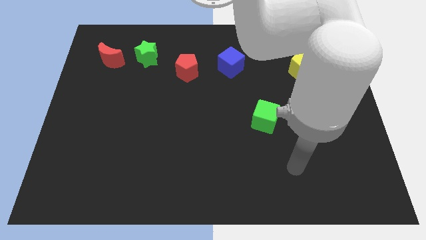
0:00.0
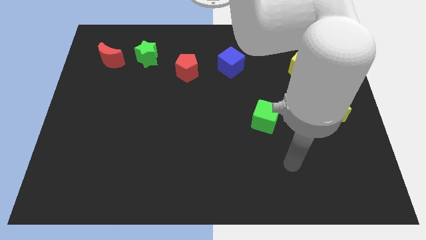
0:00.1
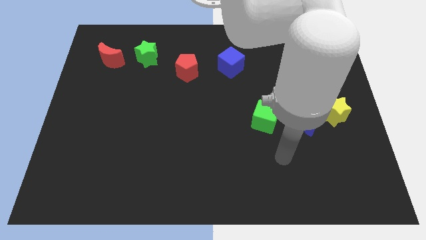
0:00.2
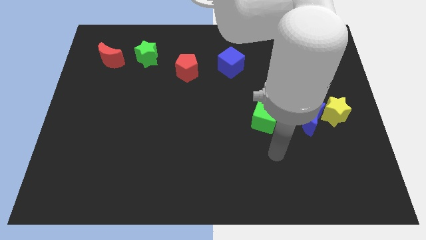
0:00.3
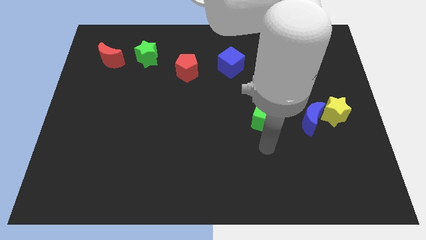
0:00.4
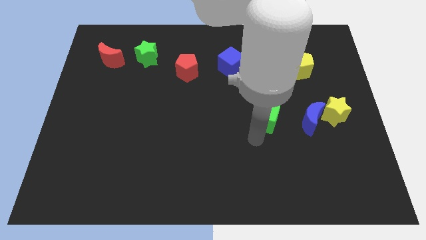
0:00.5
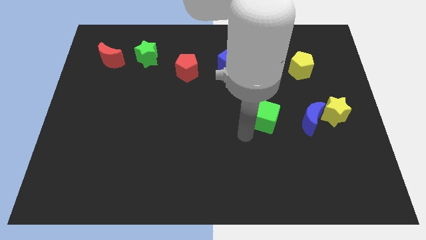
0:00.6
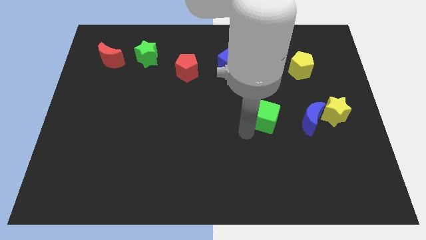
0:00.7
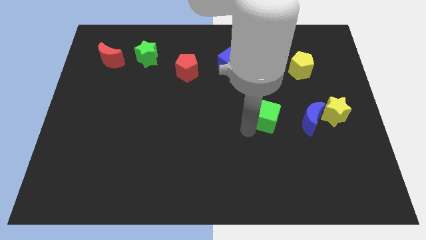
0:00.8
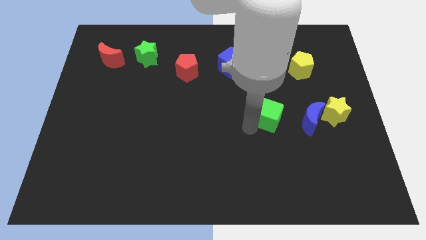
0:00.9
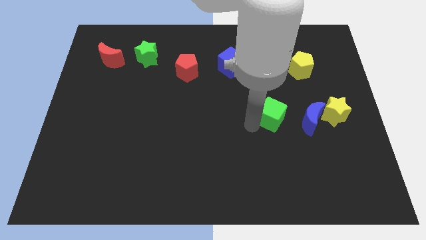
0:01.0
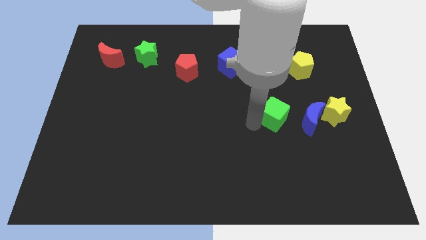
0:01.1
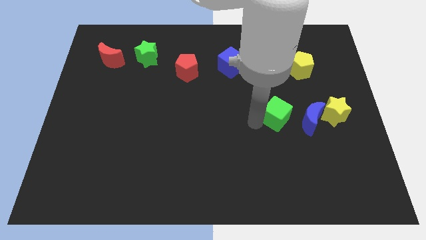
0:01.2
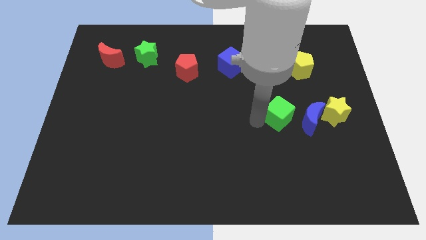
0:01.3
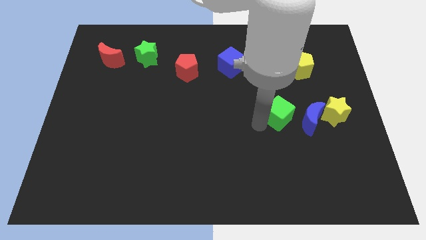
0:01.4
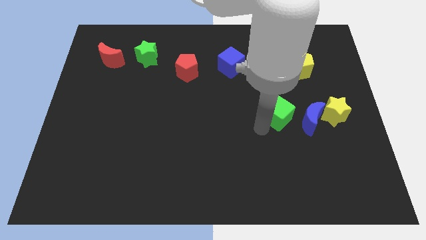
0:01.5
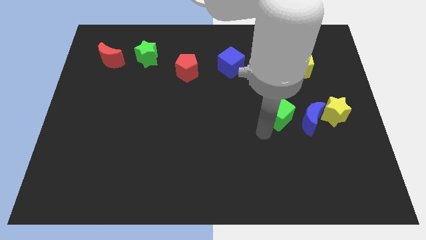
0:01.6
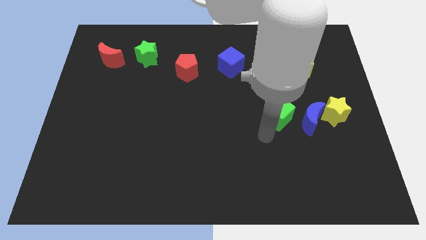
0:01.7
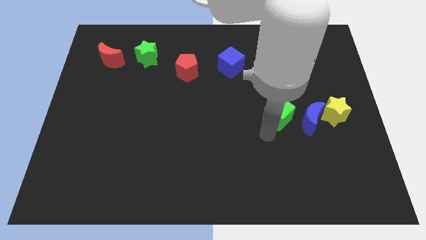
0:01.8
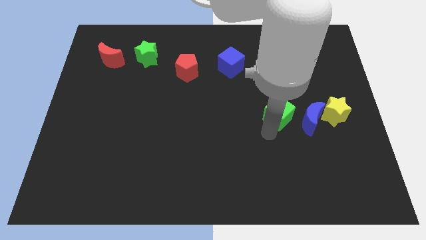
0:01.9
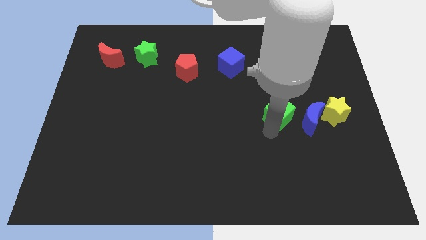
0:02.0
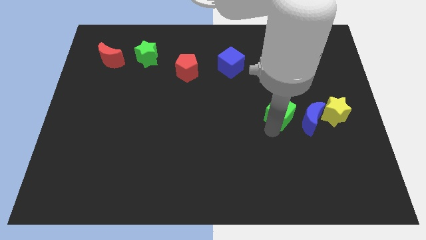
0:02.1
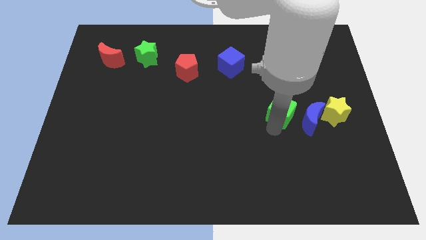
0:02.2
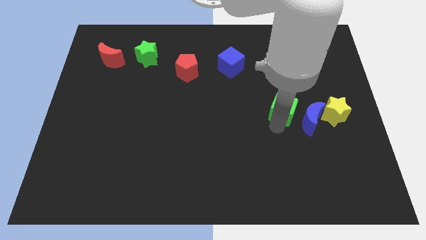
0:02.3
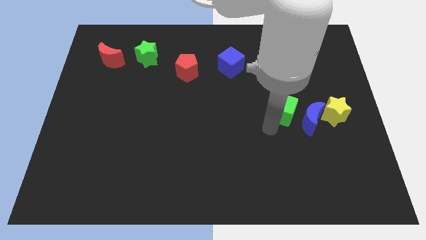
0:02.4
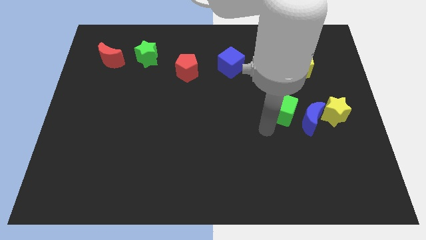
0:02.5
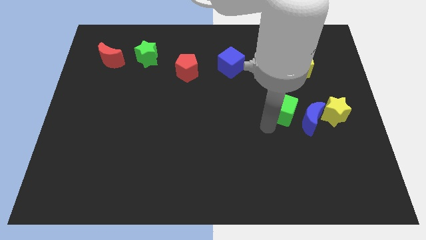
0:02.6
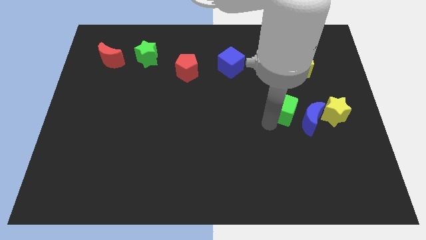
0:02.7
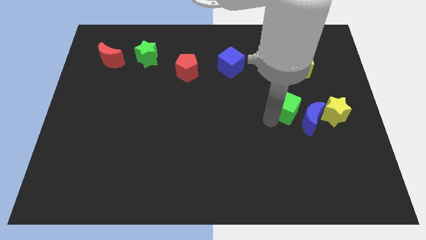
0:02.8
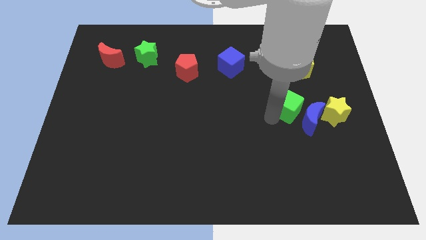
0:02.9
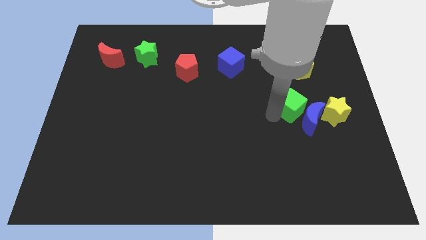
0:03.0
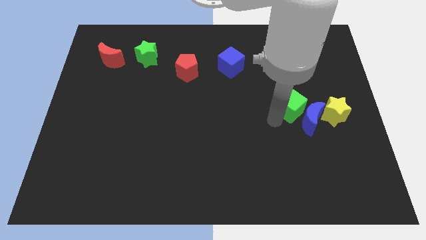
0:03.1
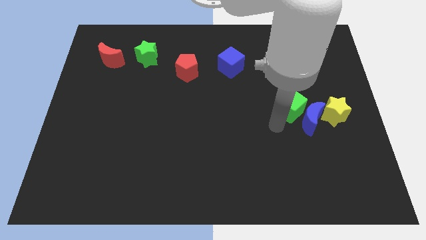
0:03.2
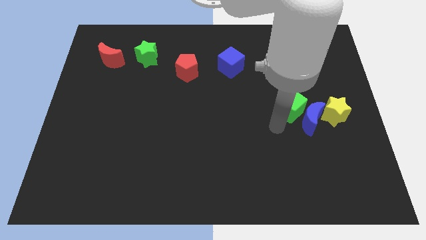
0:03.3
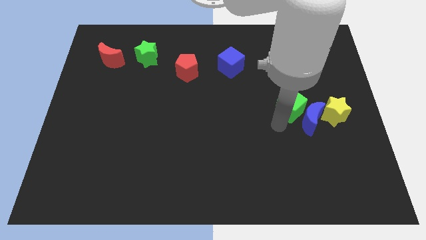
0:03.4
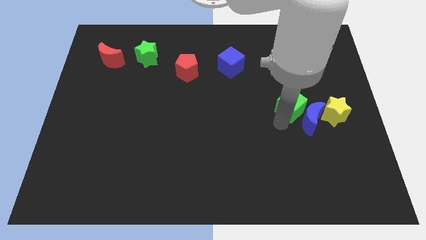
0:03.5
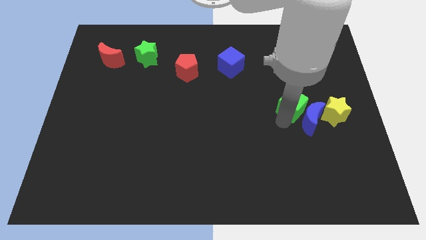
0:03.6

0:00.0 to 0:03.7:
slide the green cube diagonally upwards and to the right a bit

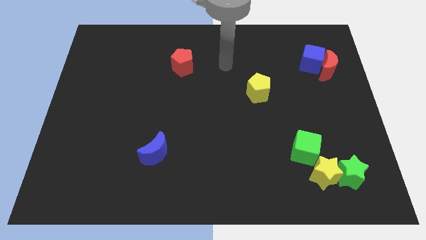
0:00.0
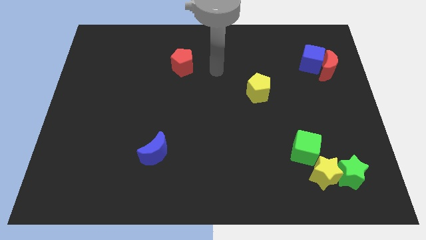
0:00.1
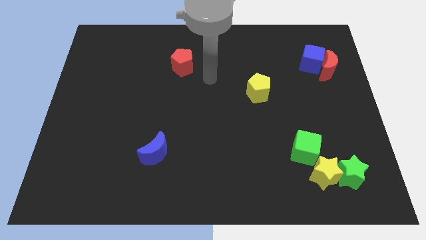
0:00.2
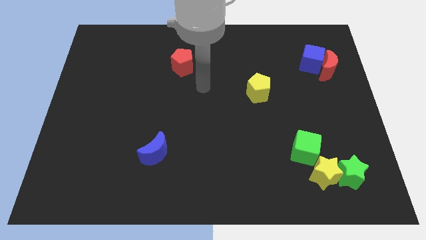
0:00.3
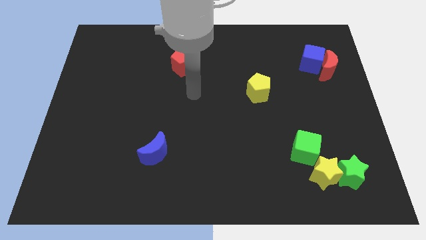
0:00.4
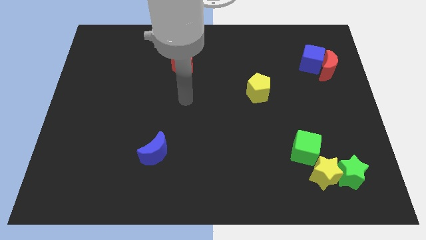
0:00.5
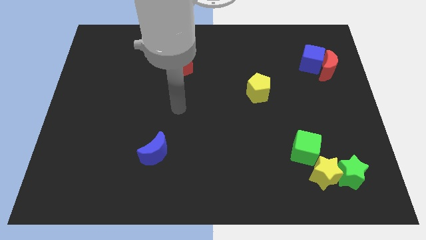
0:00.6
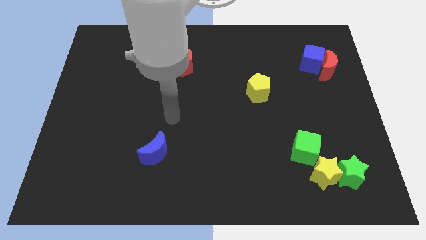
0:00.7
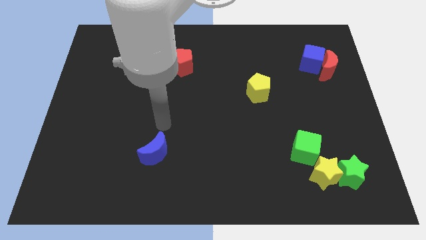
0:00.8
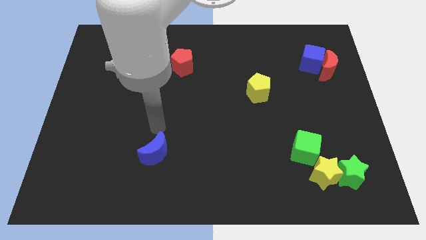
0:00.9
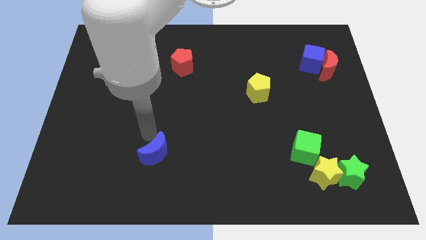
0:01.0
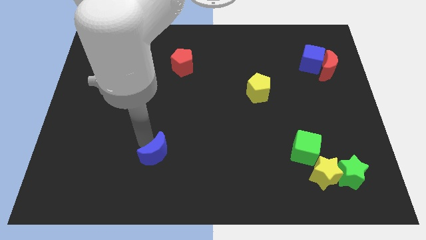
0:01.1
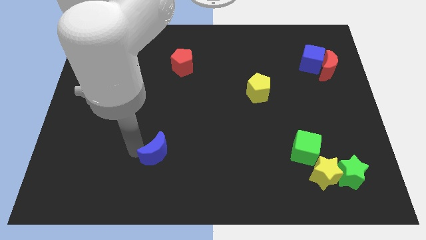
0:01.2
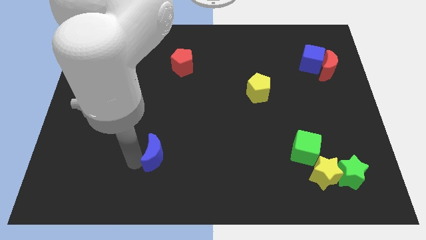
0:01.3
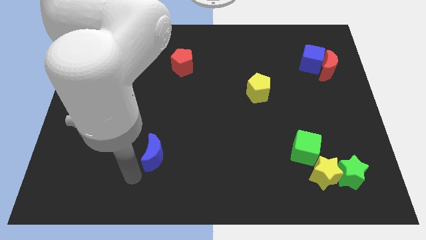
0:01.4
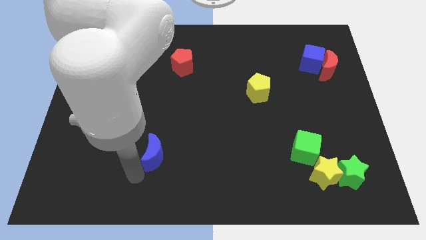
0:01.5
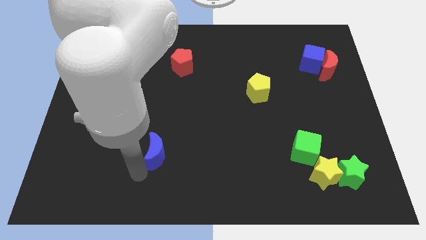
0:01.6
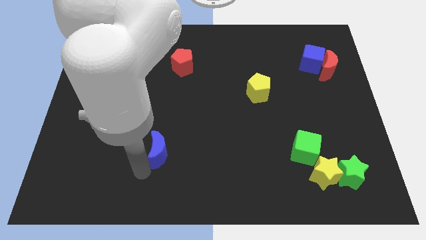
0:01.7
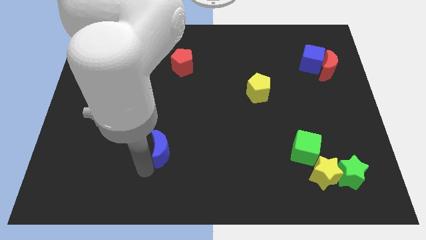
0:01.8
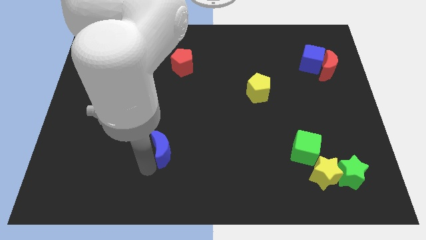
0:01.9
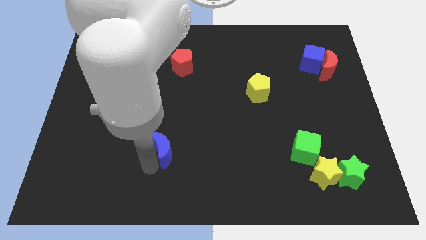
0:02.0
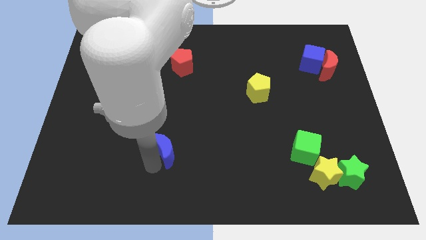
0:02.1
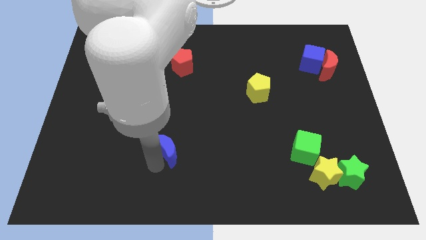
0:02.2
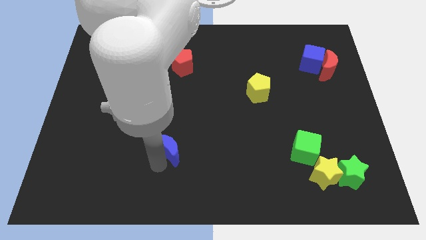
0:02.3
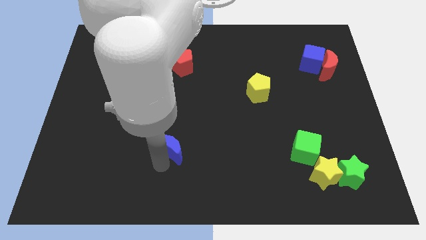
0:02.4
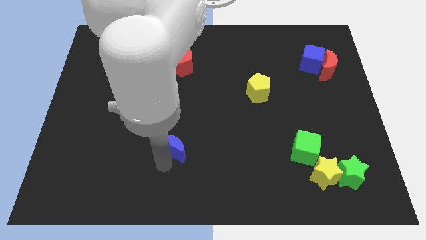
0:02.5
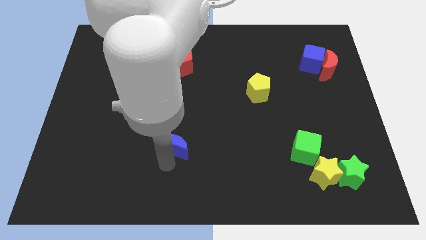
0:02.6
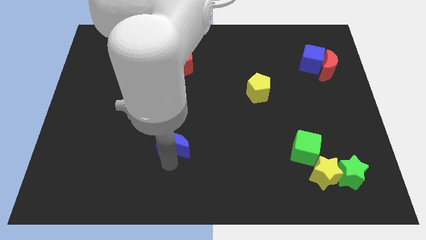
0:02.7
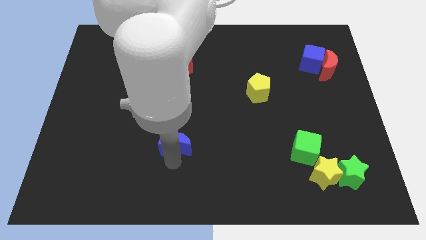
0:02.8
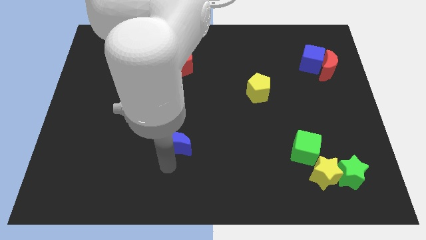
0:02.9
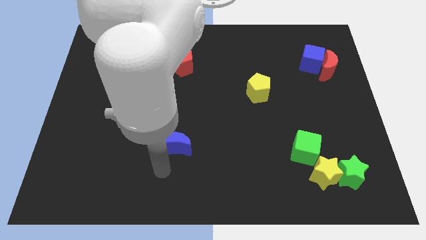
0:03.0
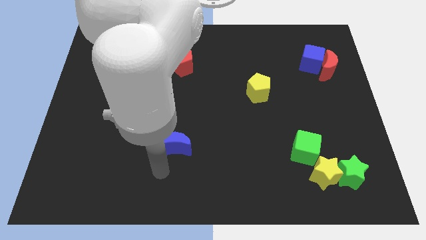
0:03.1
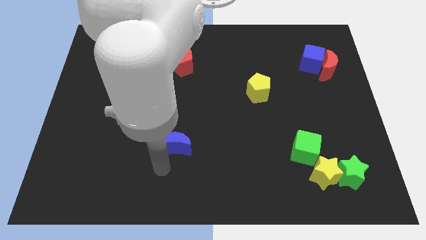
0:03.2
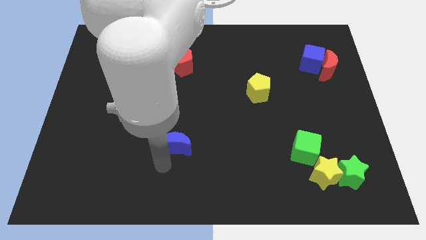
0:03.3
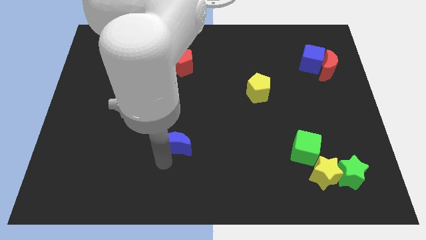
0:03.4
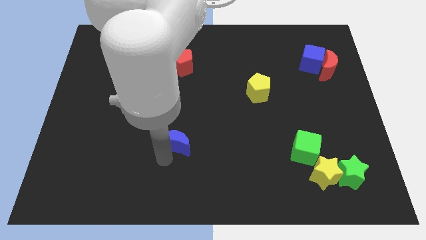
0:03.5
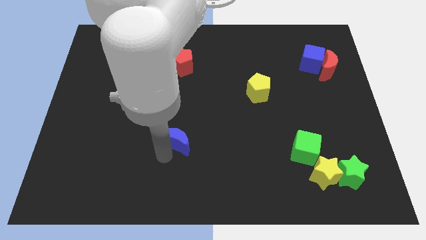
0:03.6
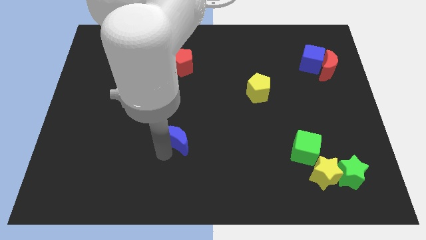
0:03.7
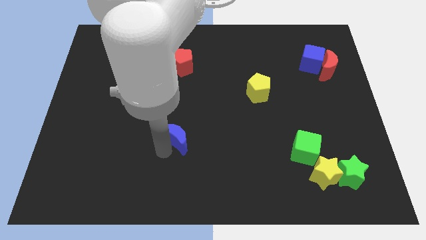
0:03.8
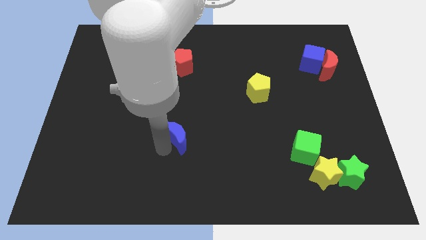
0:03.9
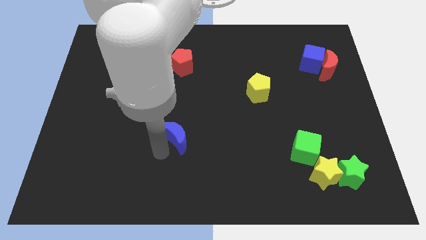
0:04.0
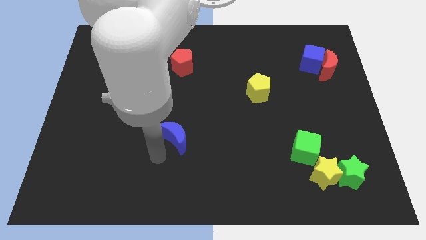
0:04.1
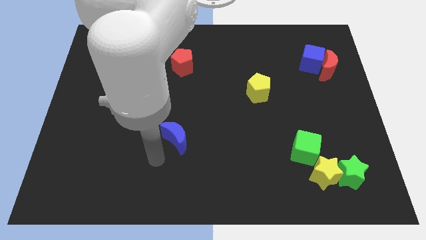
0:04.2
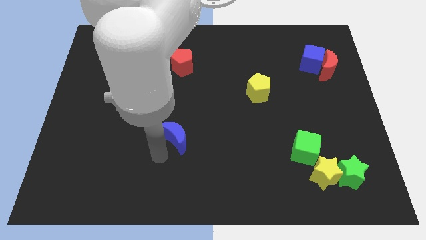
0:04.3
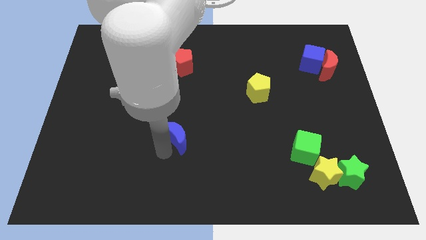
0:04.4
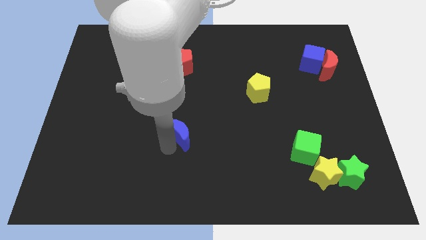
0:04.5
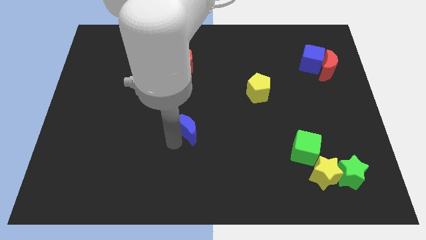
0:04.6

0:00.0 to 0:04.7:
slightly move the blue moon upwards and right diagonally
